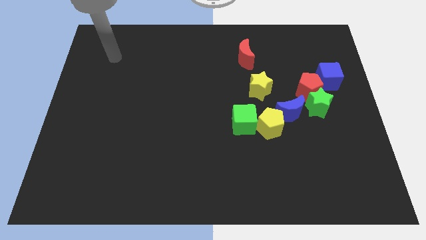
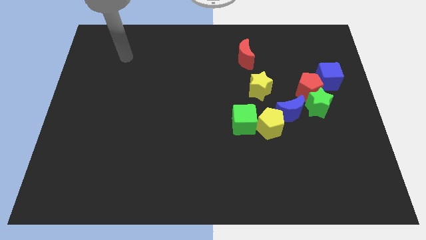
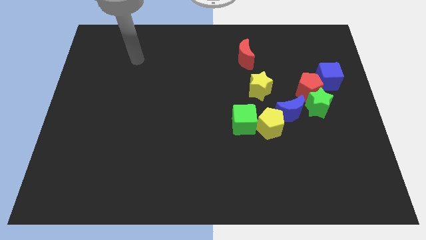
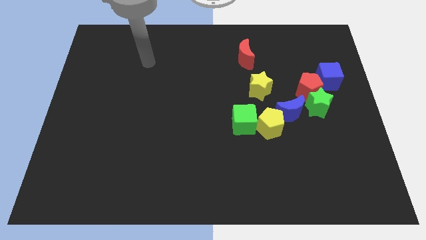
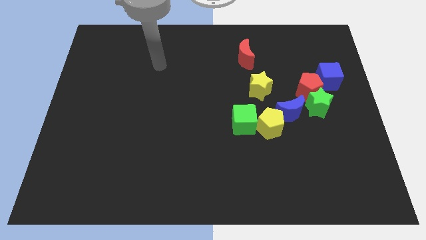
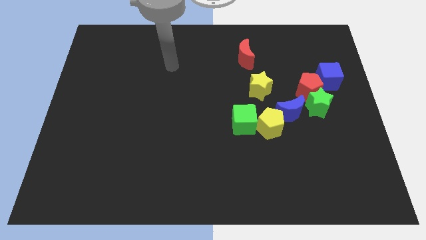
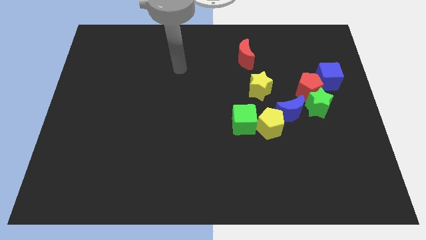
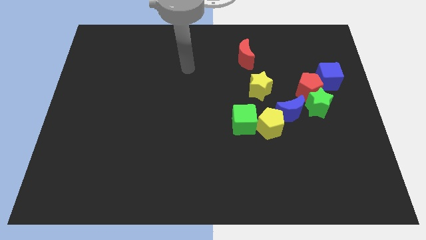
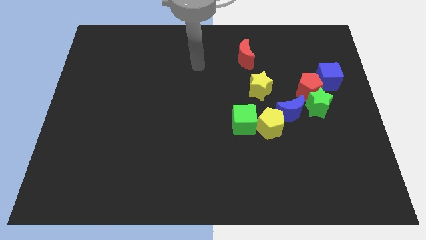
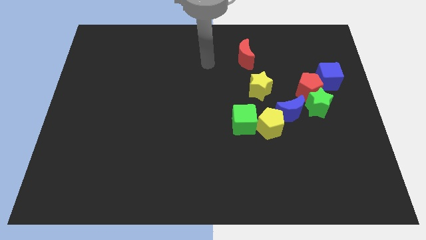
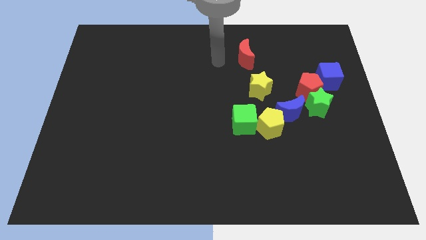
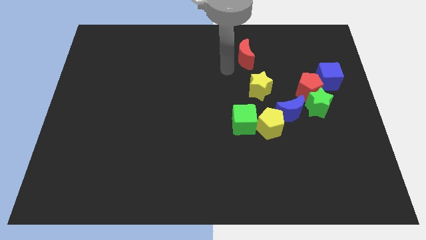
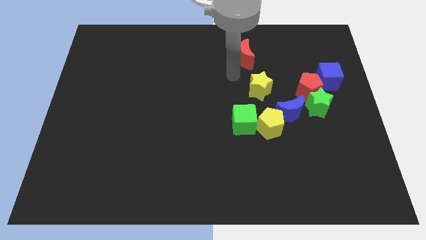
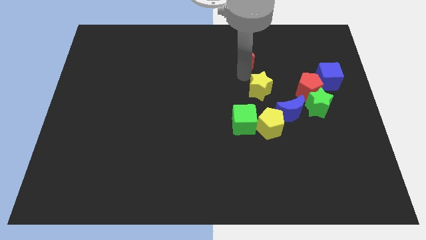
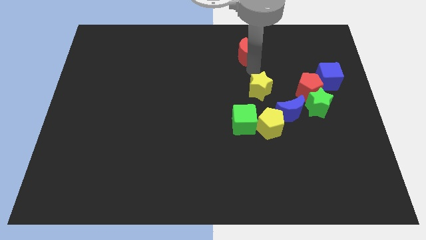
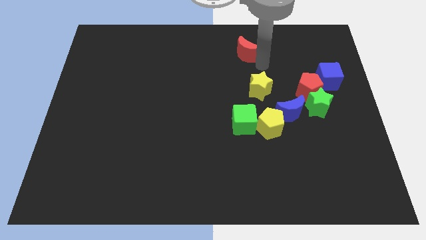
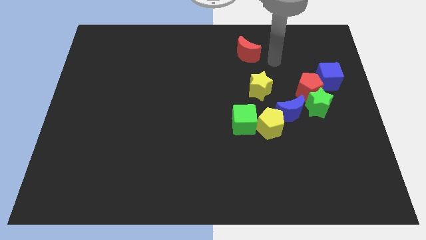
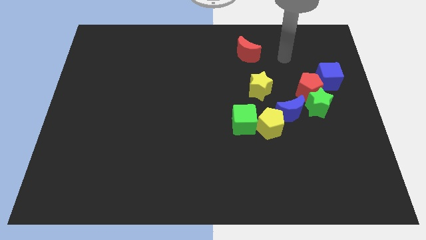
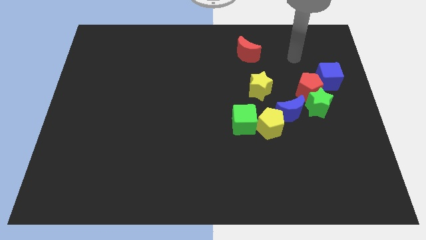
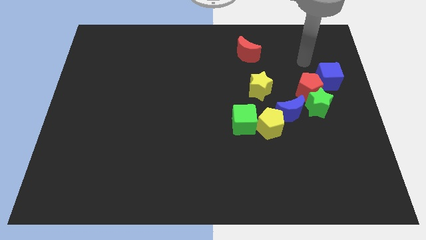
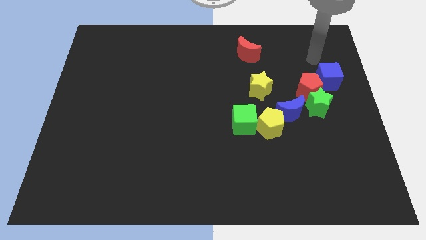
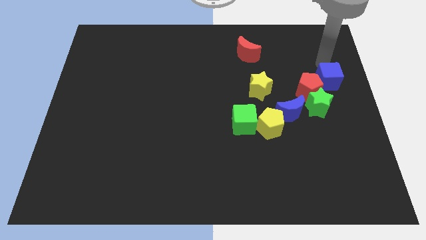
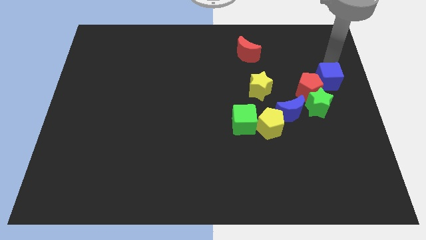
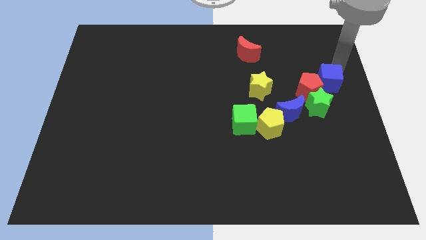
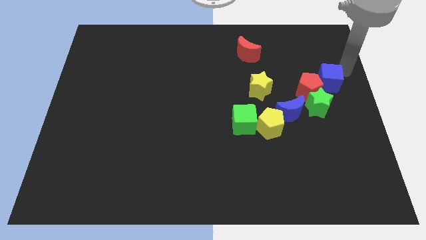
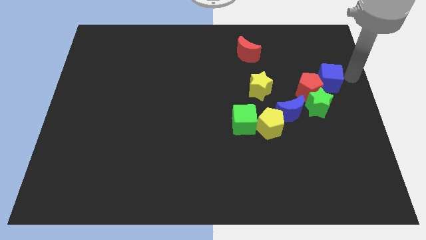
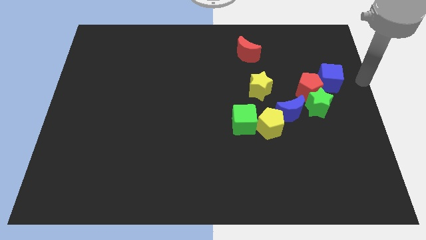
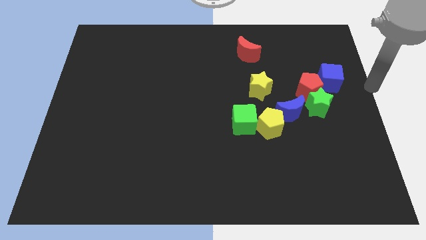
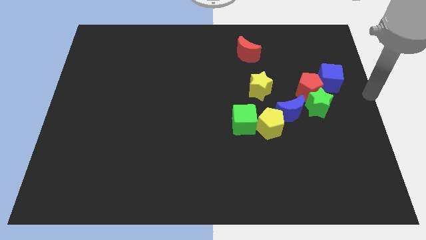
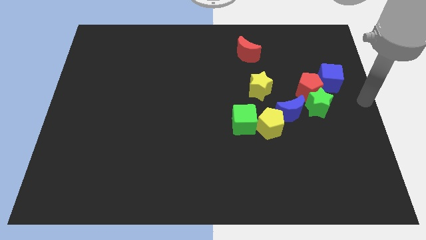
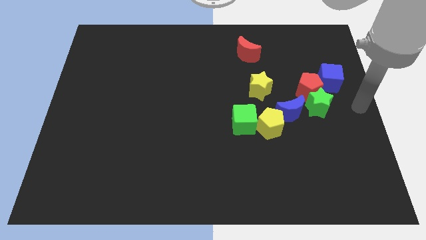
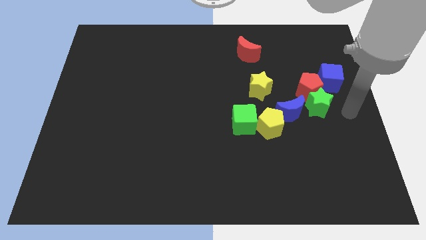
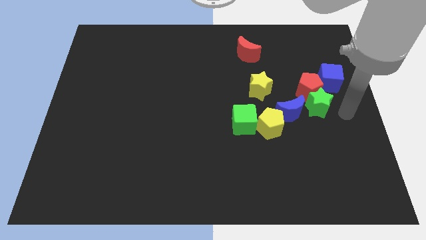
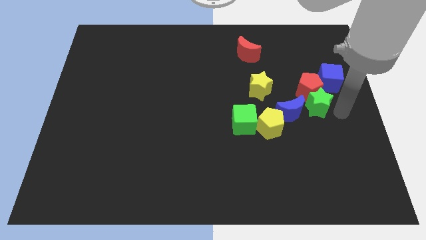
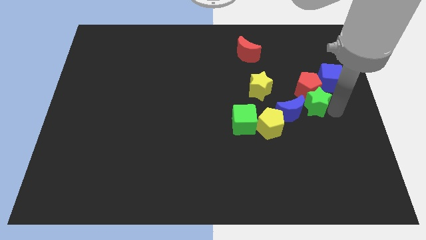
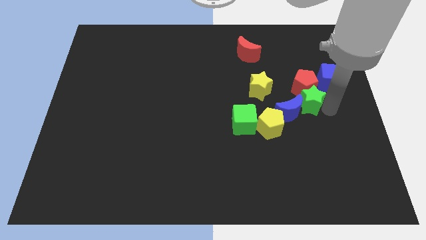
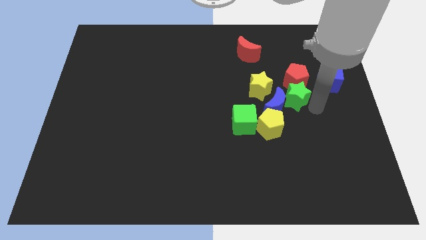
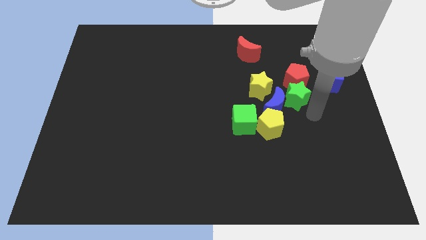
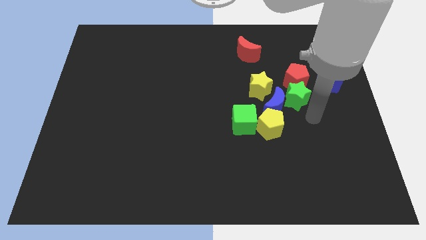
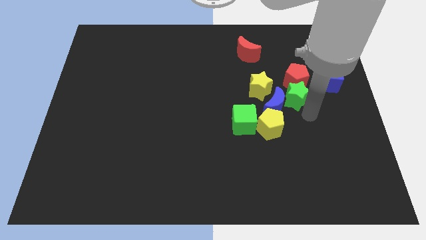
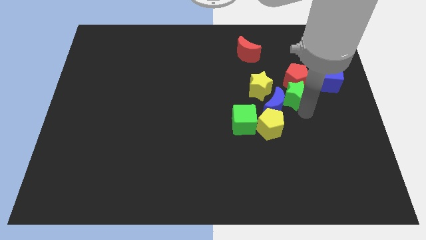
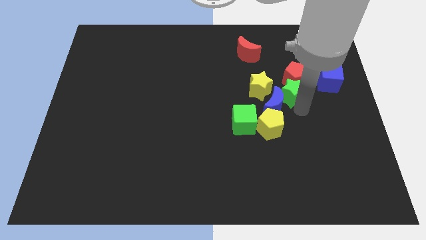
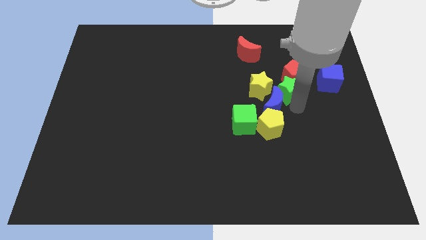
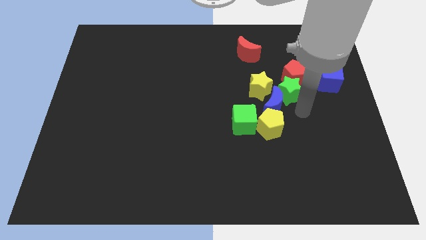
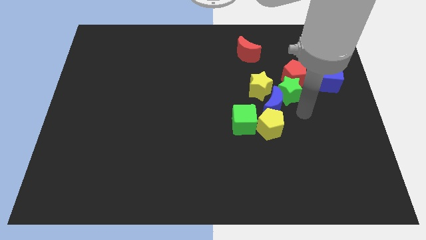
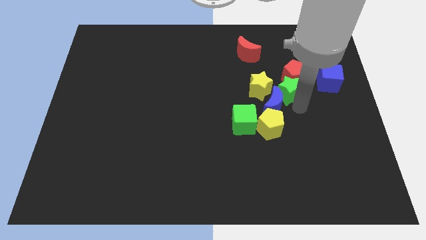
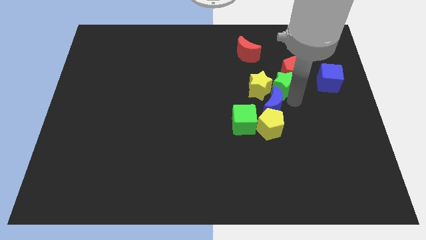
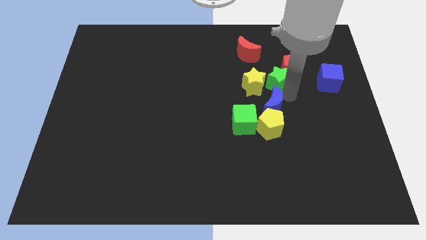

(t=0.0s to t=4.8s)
put the green star diagonally down and to the right of the red moon

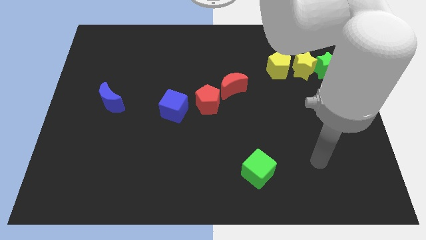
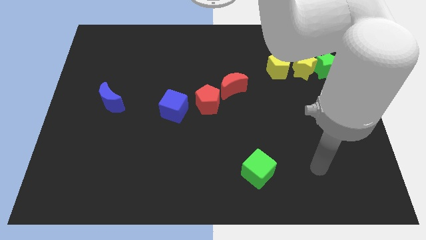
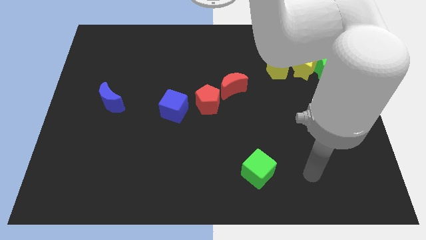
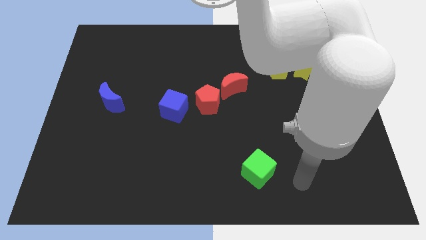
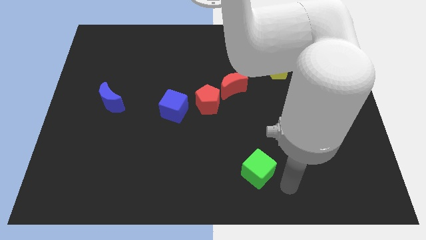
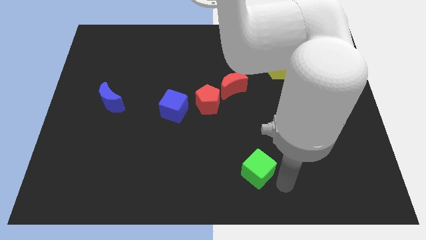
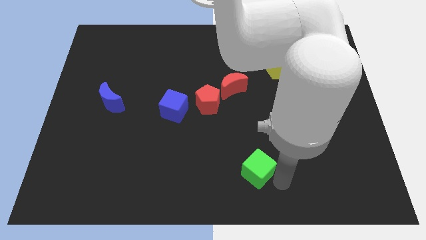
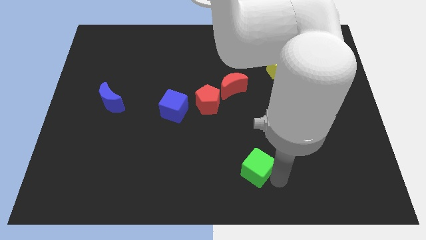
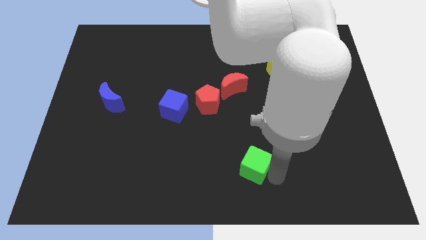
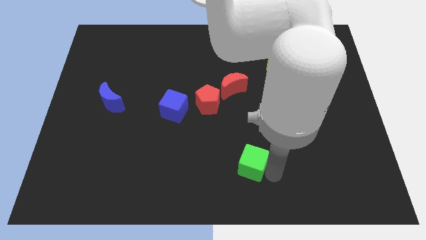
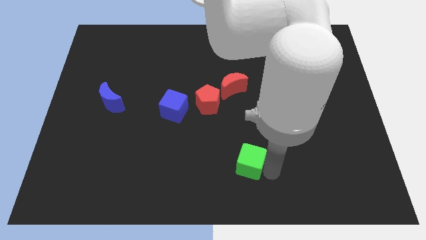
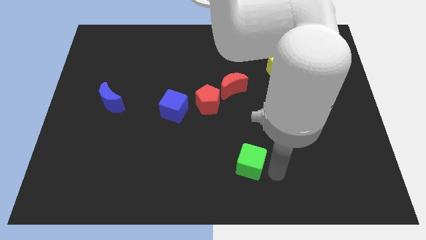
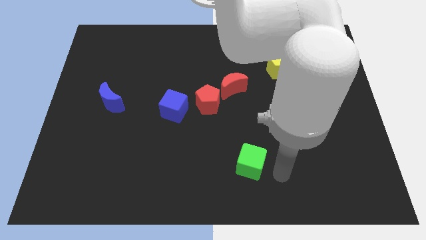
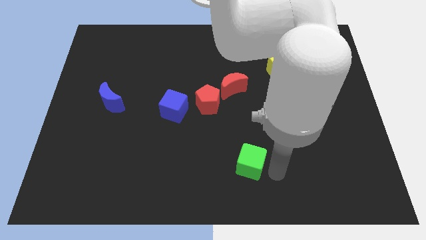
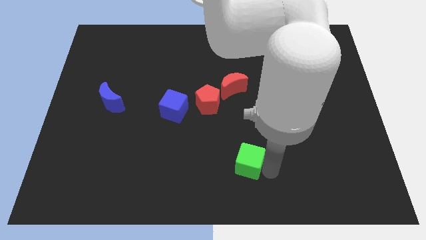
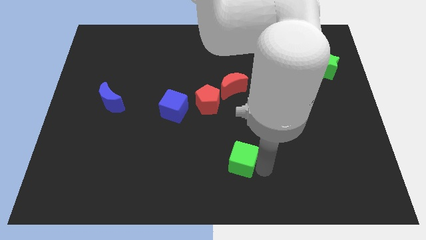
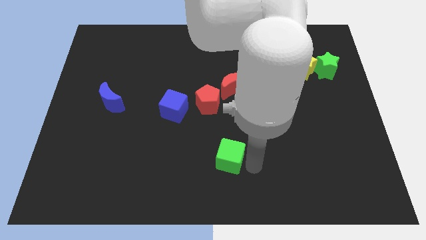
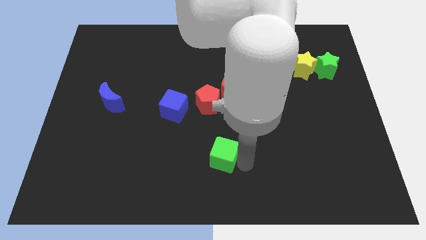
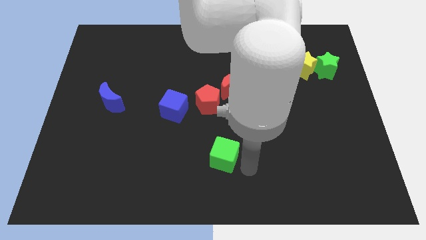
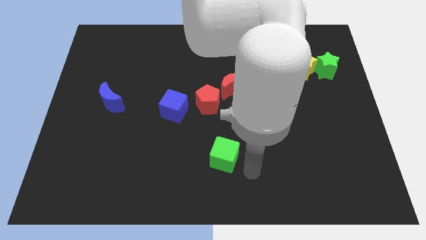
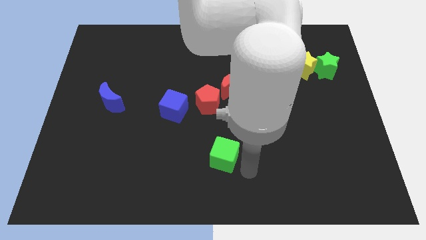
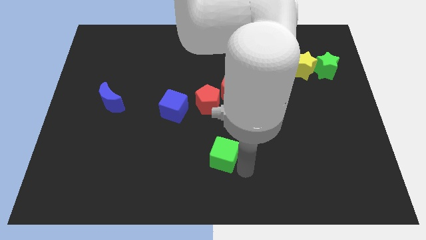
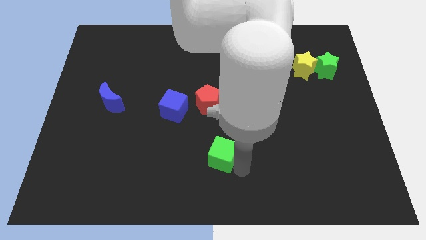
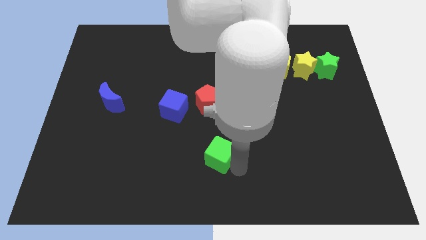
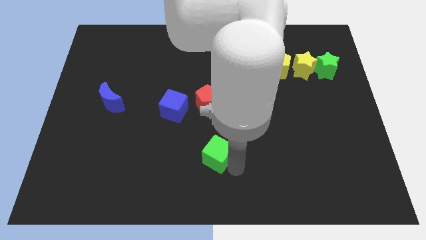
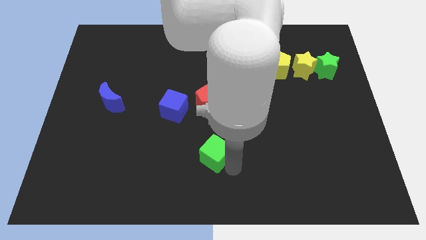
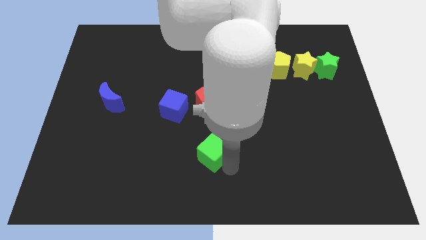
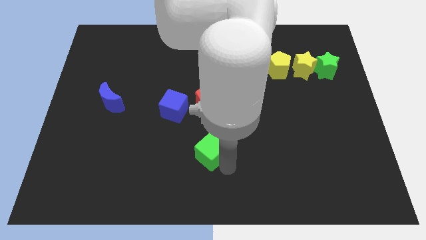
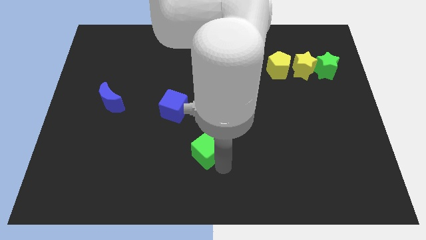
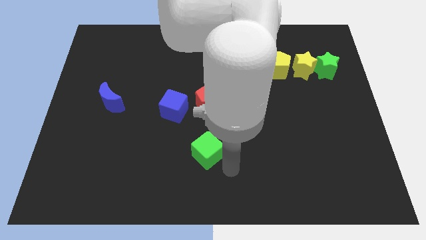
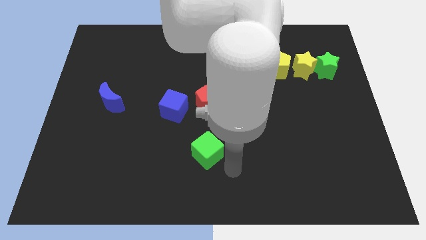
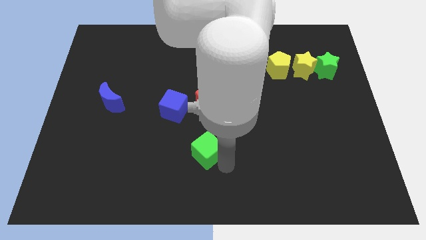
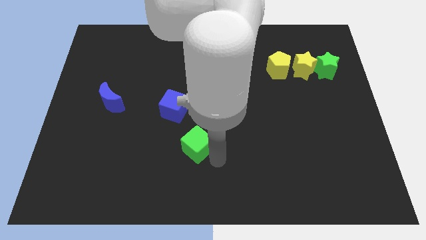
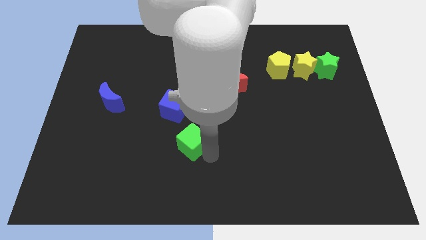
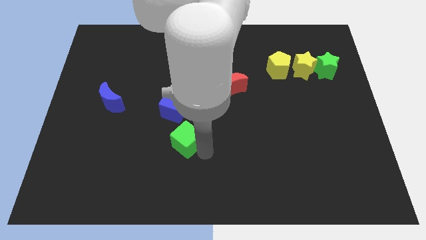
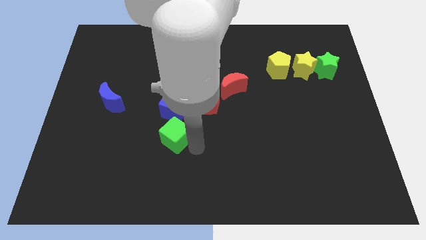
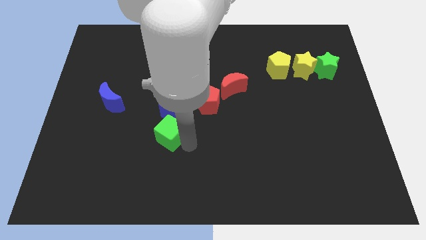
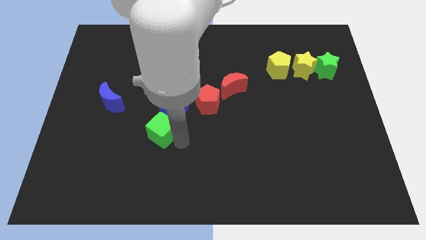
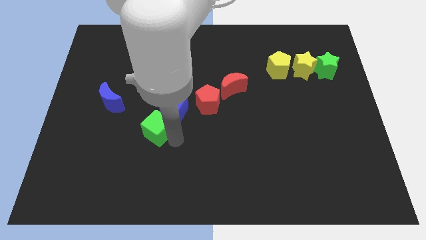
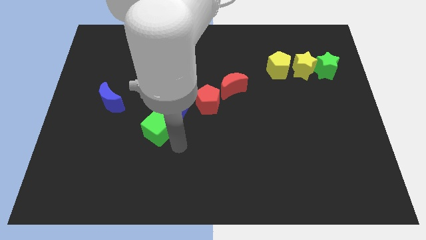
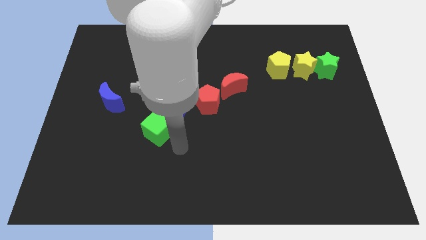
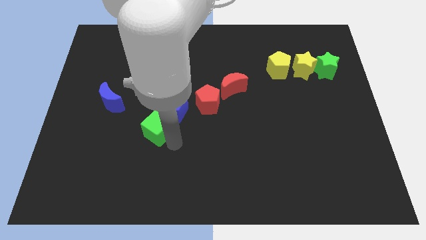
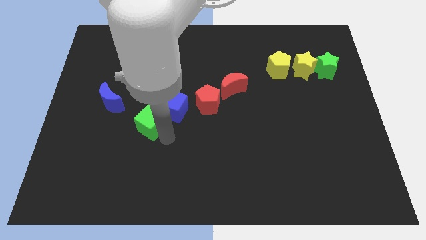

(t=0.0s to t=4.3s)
move the green cube just left of the blue cube
